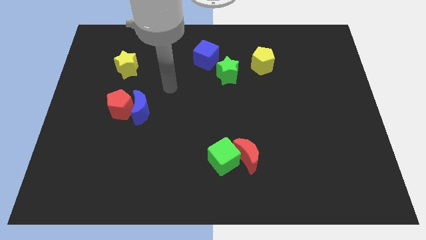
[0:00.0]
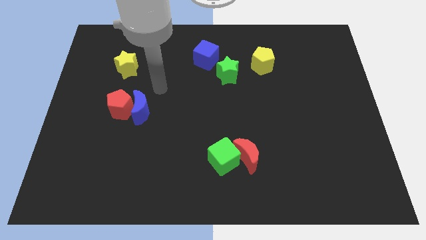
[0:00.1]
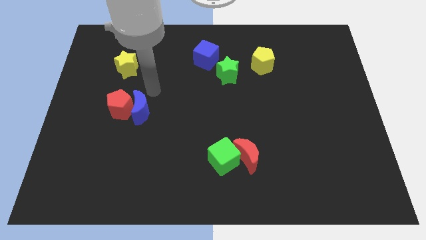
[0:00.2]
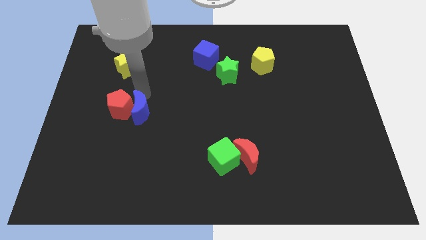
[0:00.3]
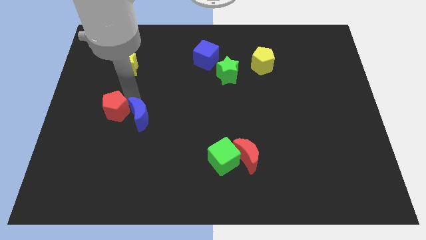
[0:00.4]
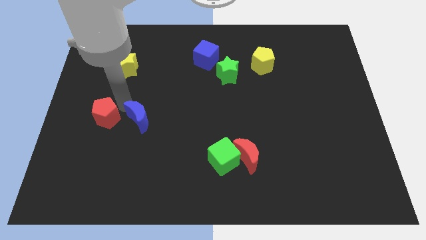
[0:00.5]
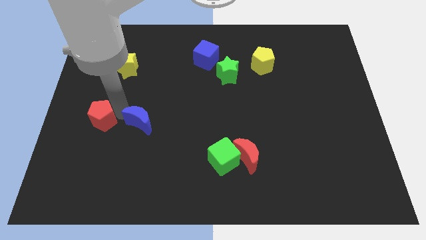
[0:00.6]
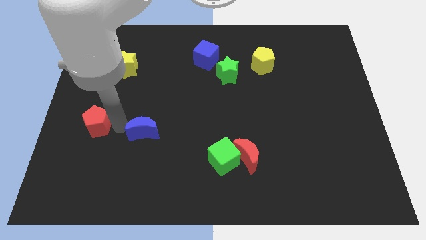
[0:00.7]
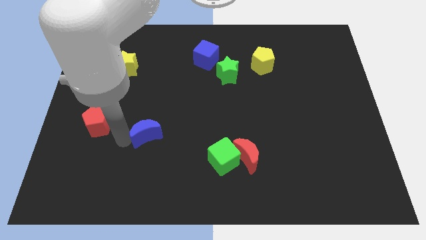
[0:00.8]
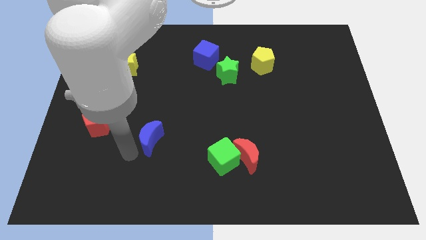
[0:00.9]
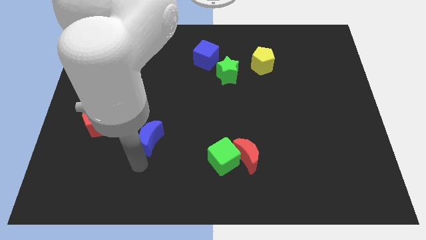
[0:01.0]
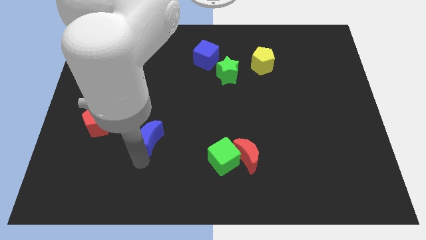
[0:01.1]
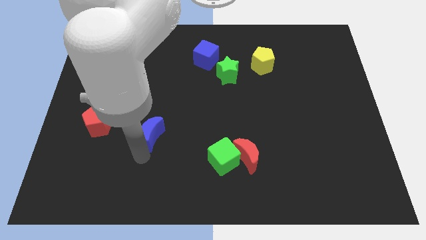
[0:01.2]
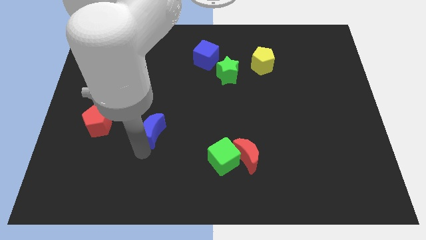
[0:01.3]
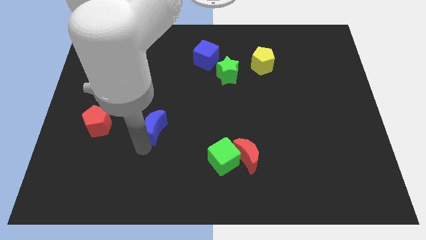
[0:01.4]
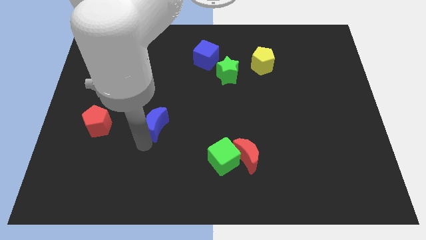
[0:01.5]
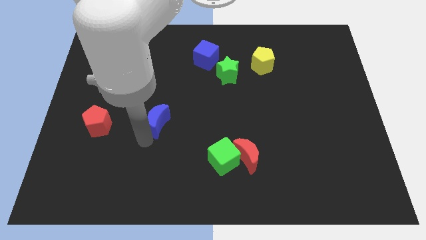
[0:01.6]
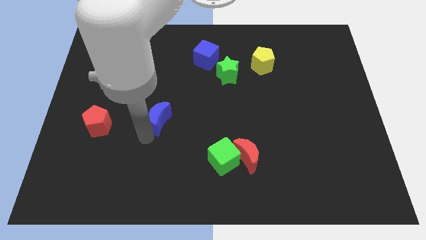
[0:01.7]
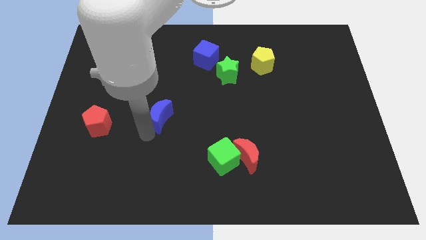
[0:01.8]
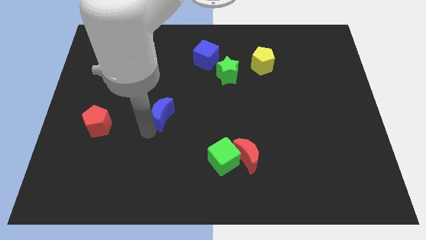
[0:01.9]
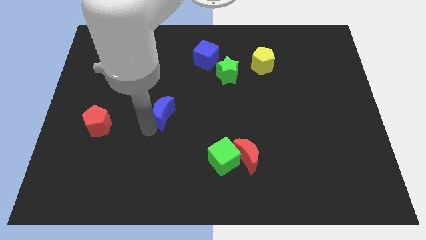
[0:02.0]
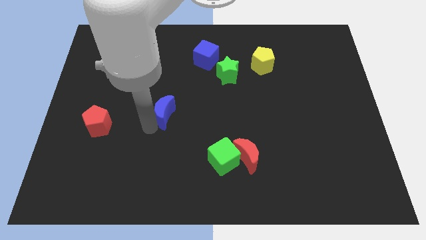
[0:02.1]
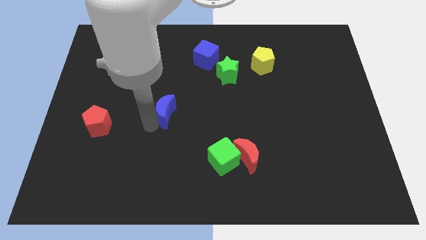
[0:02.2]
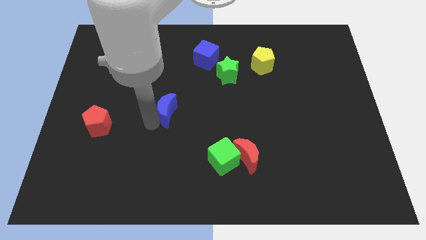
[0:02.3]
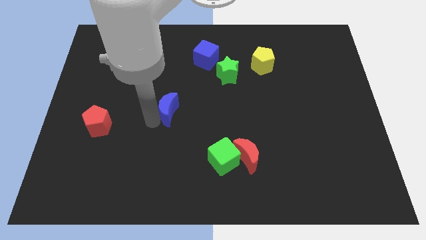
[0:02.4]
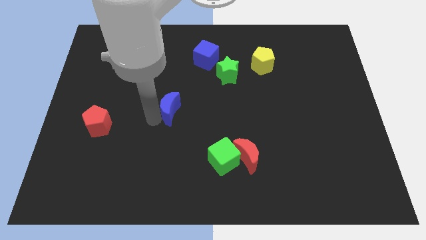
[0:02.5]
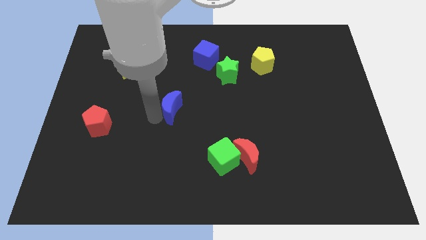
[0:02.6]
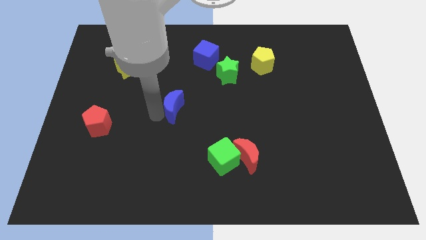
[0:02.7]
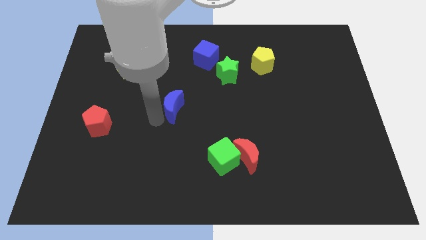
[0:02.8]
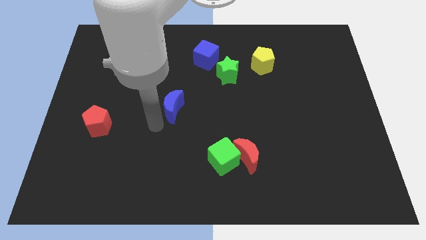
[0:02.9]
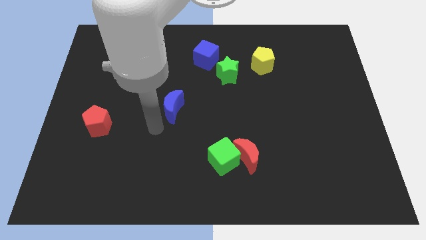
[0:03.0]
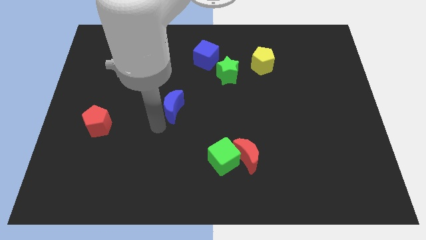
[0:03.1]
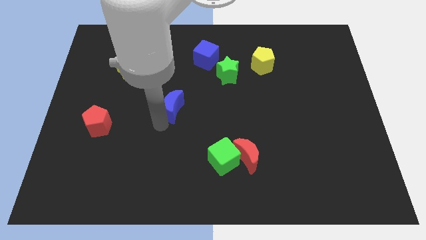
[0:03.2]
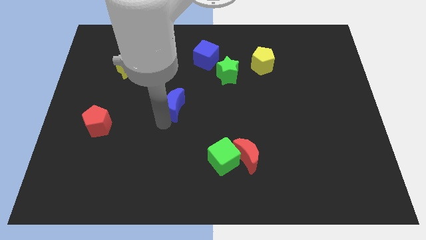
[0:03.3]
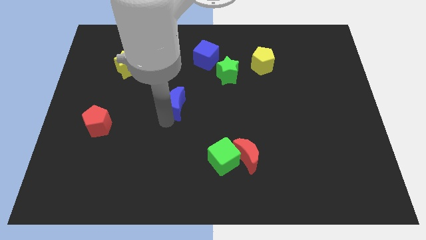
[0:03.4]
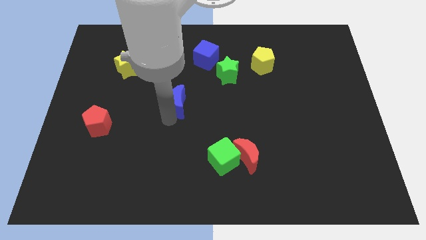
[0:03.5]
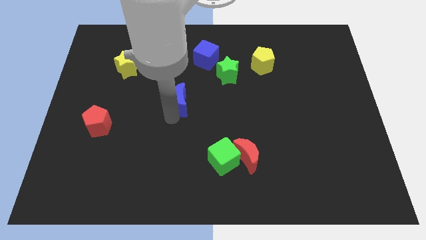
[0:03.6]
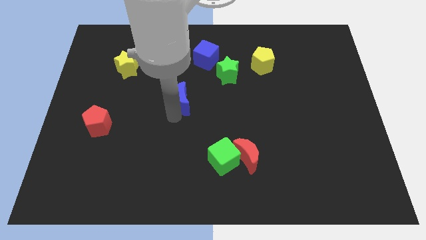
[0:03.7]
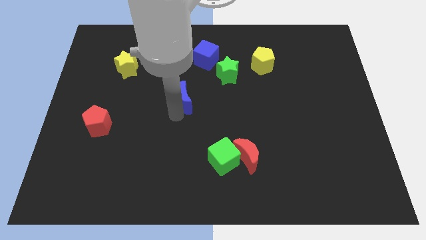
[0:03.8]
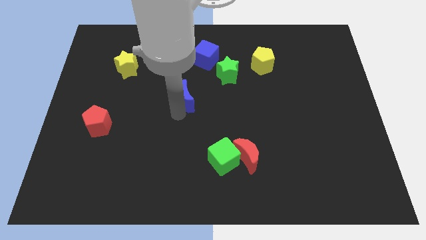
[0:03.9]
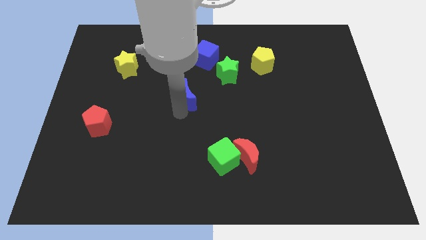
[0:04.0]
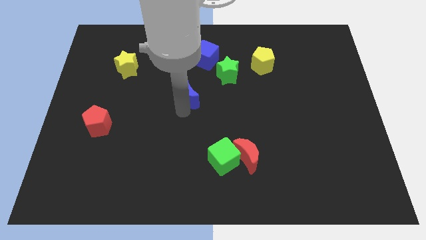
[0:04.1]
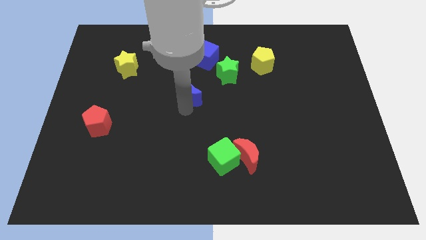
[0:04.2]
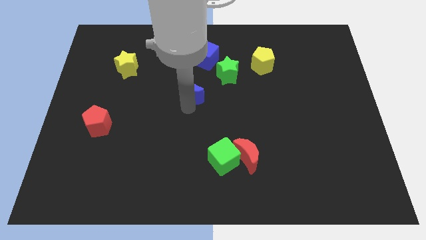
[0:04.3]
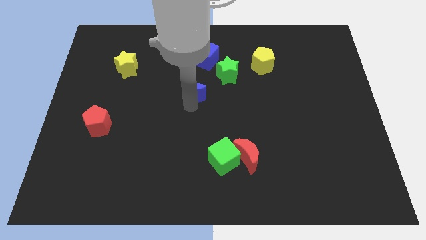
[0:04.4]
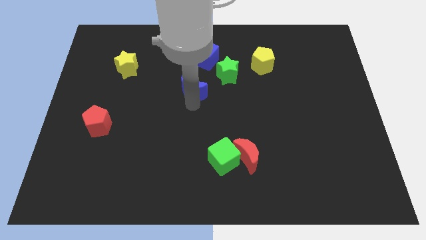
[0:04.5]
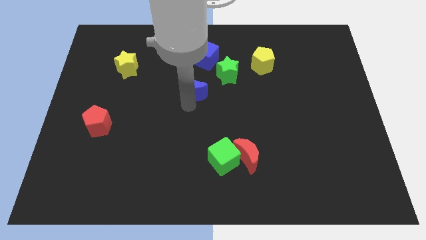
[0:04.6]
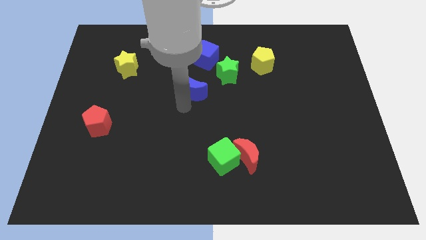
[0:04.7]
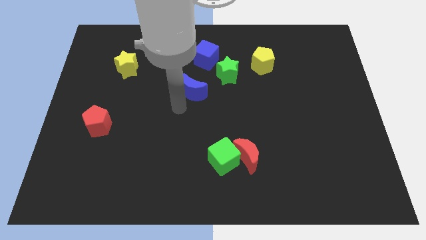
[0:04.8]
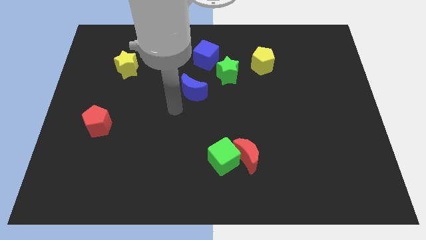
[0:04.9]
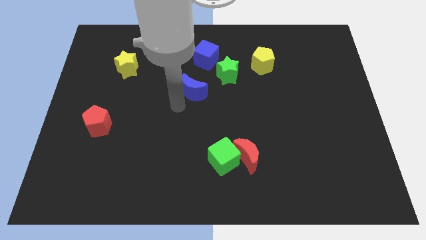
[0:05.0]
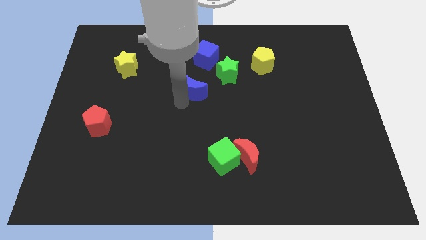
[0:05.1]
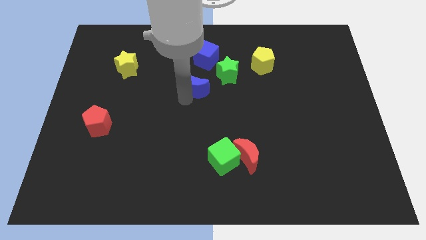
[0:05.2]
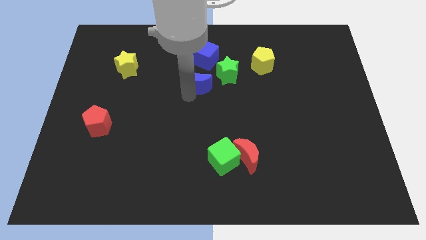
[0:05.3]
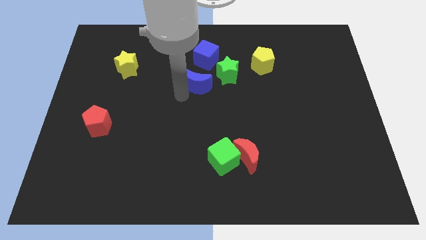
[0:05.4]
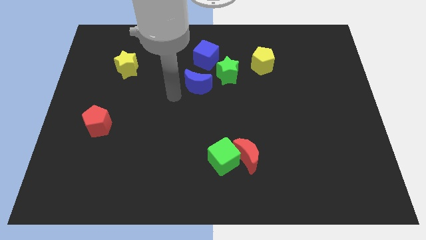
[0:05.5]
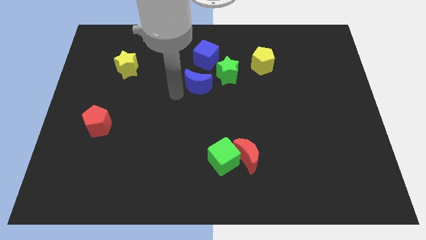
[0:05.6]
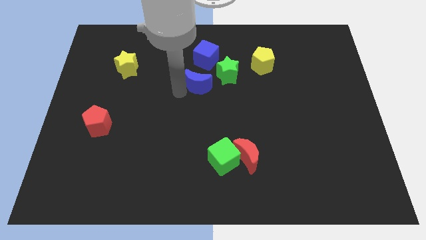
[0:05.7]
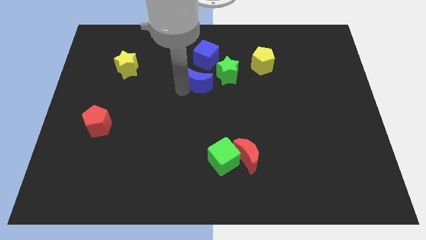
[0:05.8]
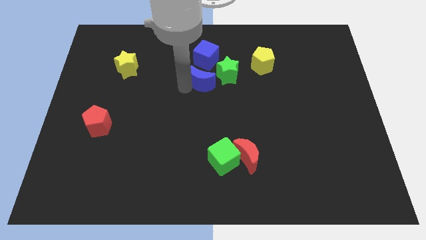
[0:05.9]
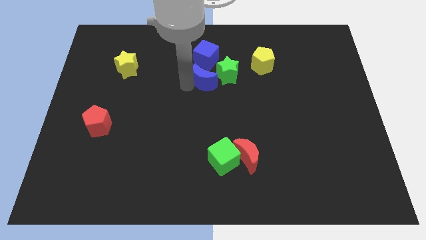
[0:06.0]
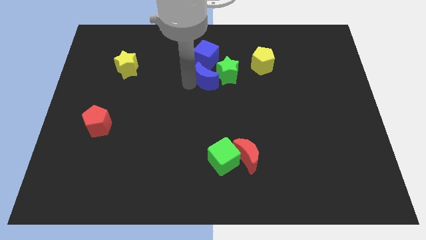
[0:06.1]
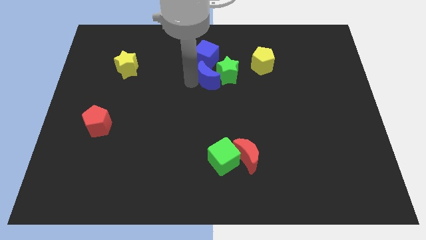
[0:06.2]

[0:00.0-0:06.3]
slide the blue moon towards the green star

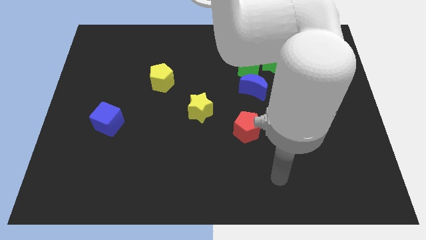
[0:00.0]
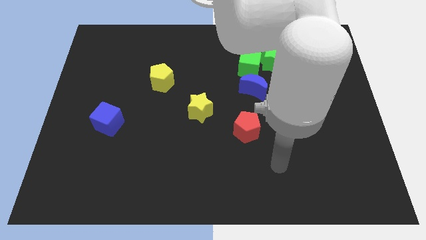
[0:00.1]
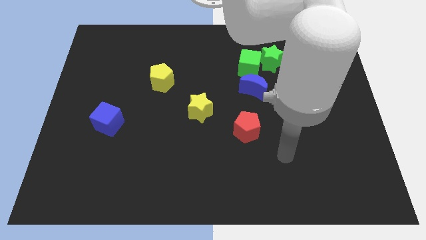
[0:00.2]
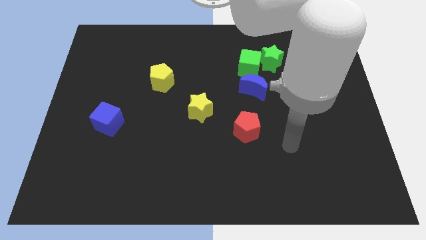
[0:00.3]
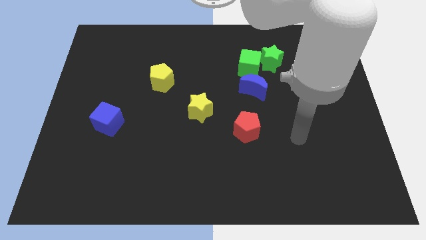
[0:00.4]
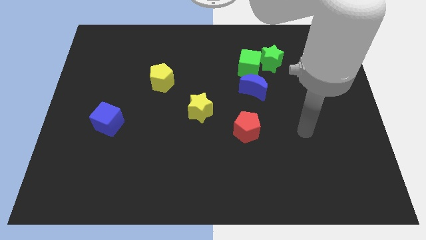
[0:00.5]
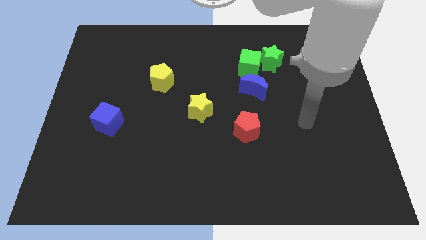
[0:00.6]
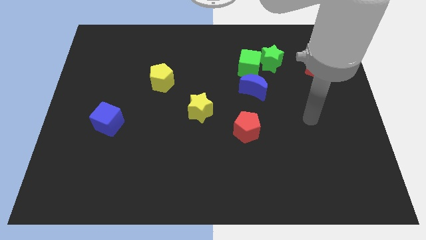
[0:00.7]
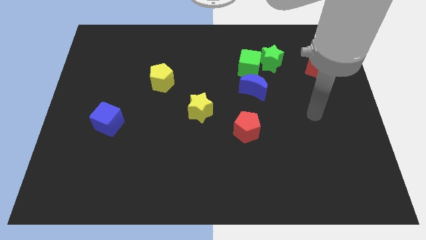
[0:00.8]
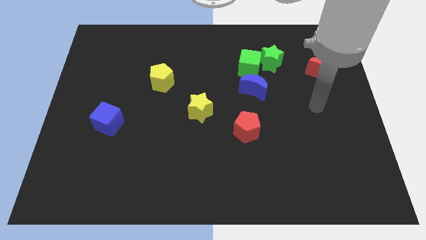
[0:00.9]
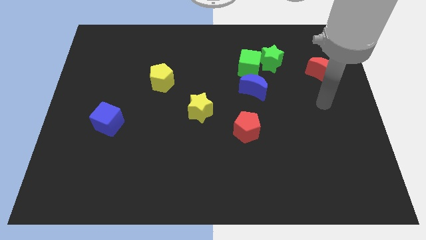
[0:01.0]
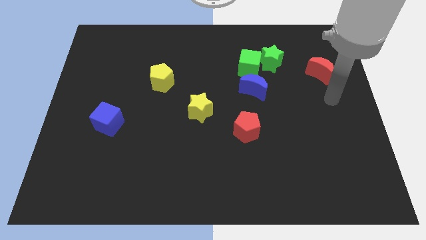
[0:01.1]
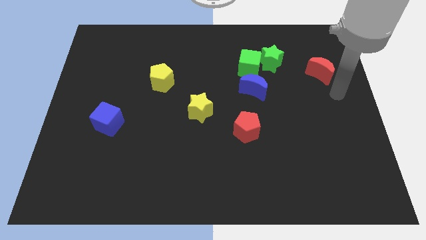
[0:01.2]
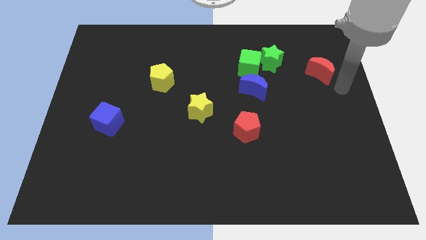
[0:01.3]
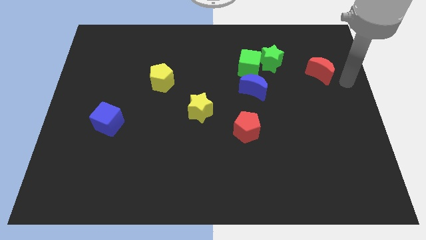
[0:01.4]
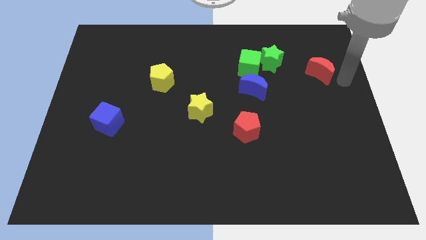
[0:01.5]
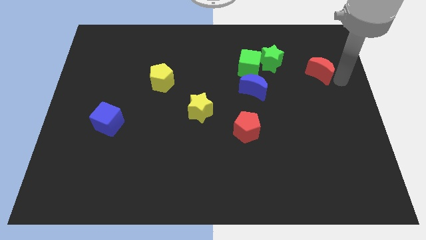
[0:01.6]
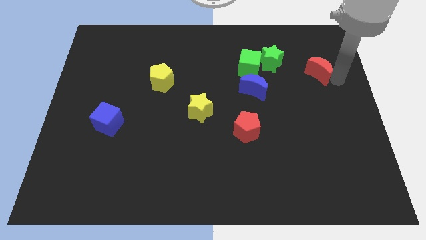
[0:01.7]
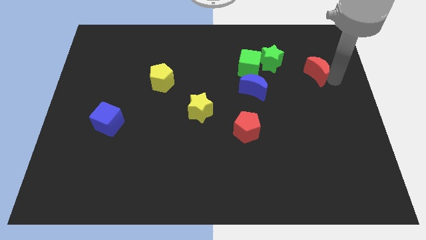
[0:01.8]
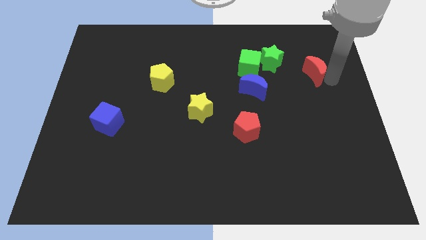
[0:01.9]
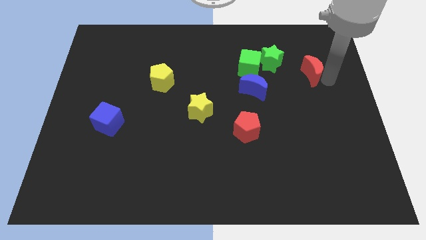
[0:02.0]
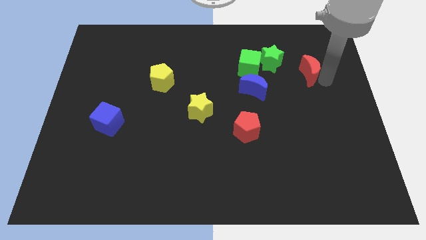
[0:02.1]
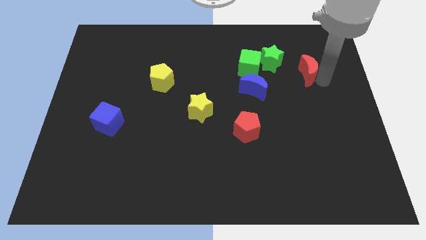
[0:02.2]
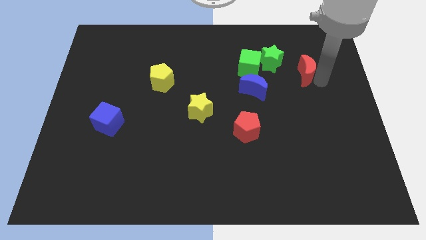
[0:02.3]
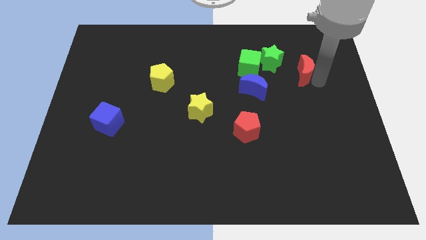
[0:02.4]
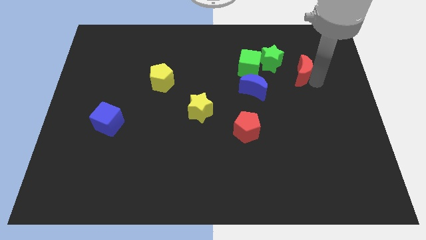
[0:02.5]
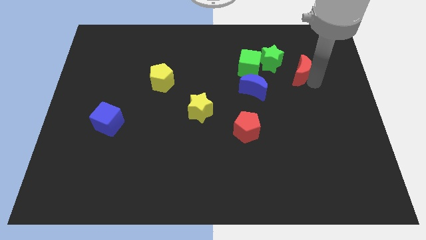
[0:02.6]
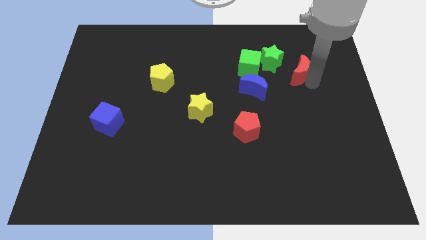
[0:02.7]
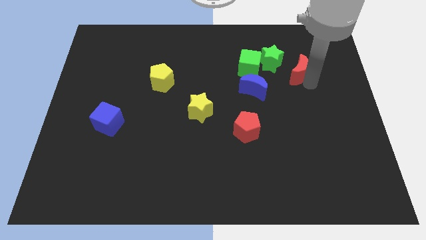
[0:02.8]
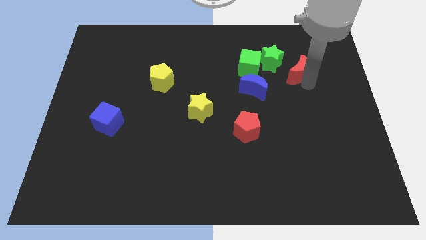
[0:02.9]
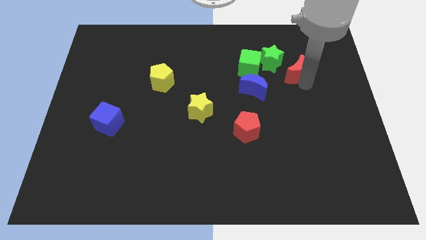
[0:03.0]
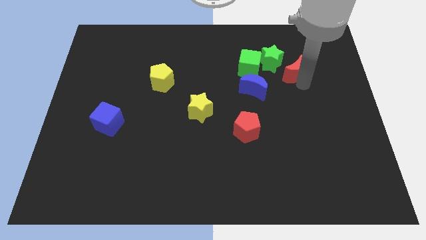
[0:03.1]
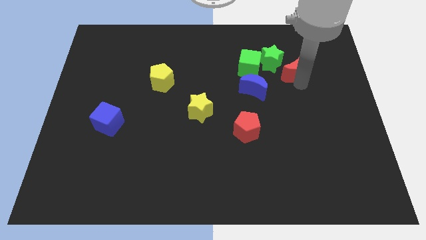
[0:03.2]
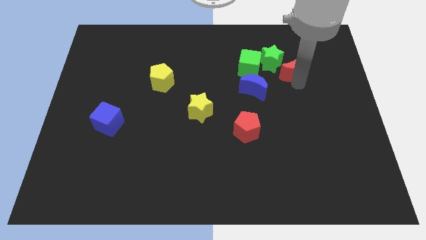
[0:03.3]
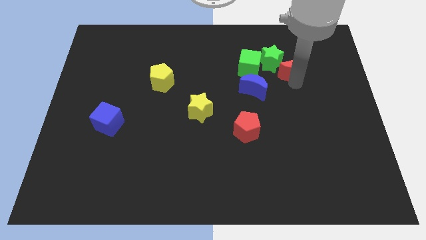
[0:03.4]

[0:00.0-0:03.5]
move the red moon to the green star
